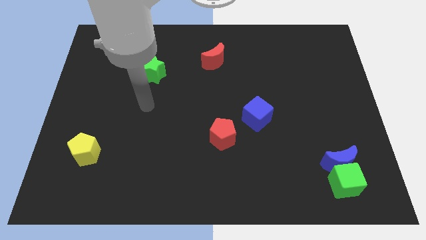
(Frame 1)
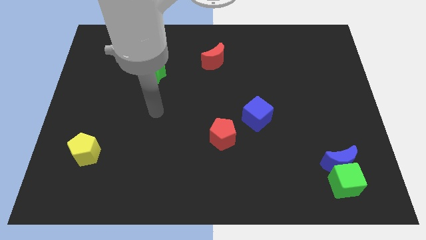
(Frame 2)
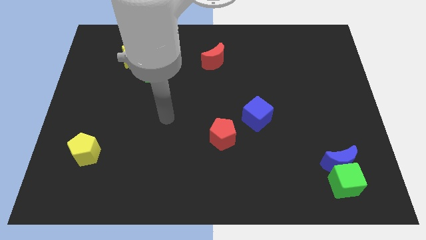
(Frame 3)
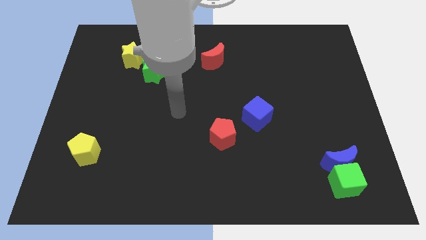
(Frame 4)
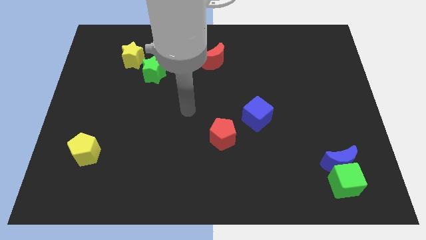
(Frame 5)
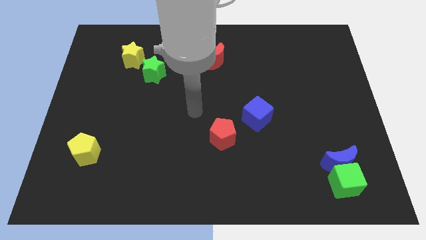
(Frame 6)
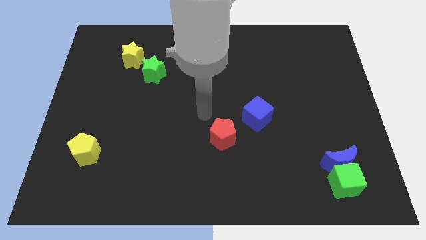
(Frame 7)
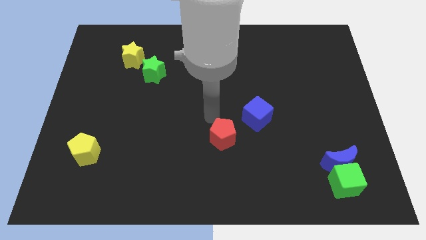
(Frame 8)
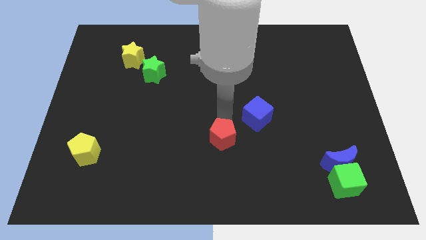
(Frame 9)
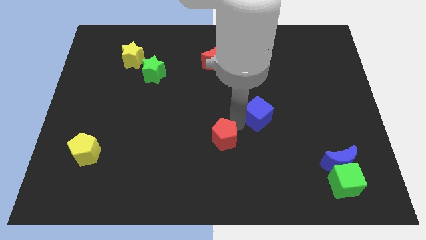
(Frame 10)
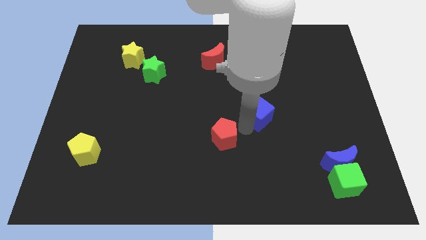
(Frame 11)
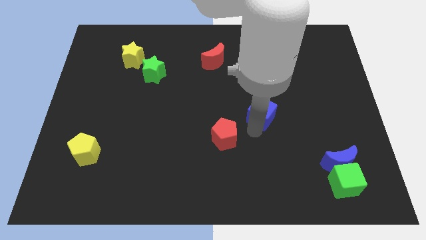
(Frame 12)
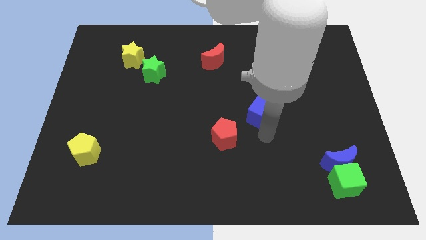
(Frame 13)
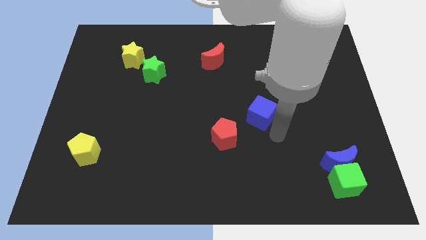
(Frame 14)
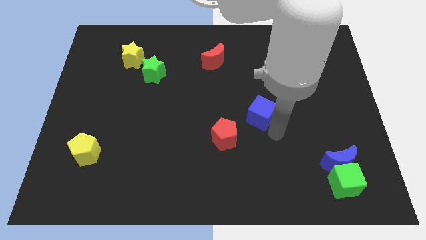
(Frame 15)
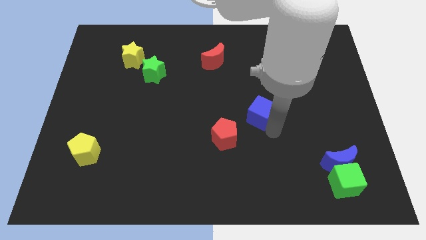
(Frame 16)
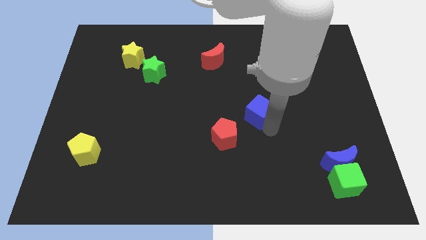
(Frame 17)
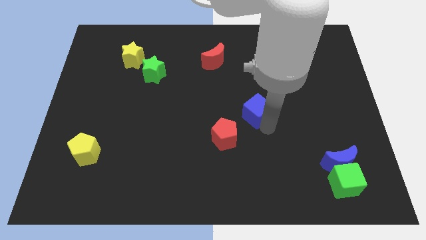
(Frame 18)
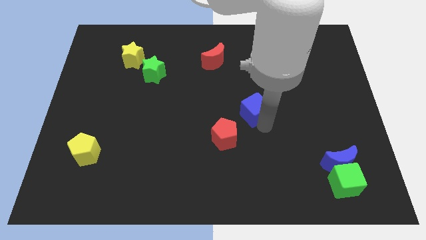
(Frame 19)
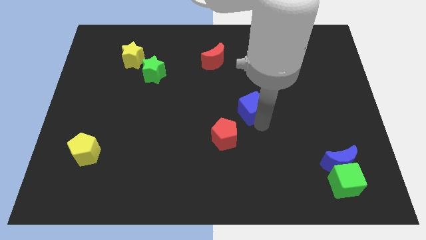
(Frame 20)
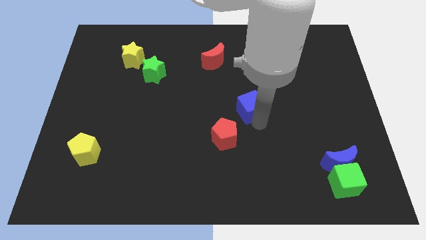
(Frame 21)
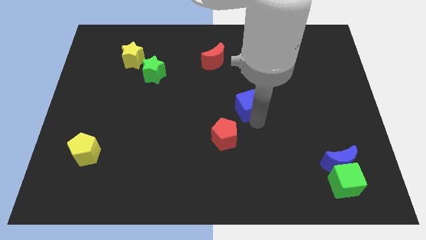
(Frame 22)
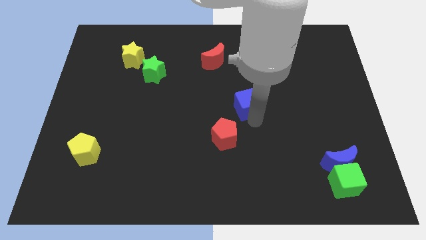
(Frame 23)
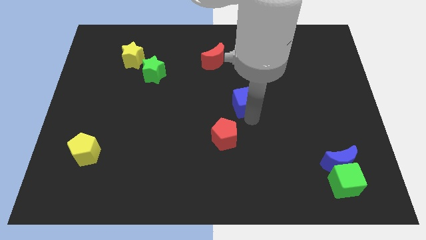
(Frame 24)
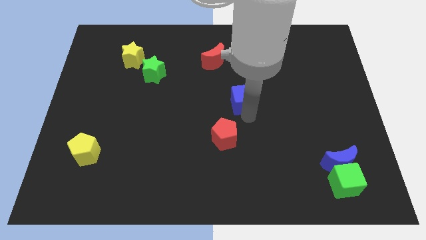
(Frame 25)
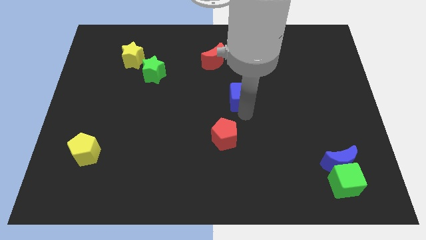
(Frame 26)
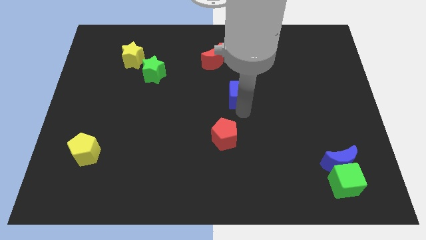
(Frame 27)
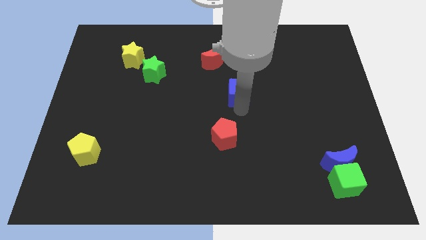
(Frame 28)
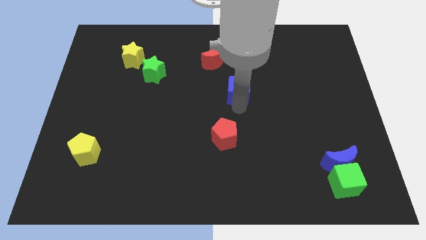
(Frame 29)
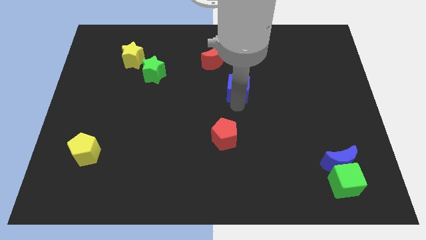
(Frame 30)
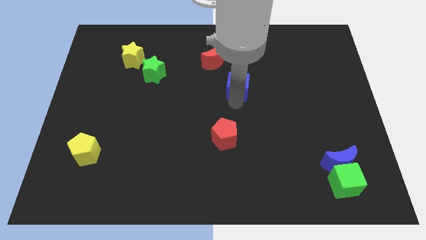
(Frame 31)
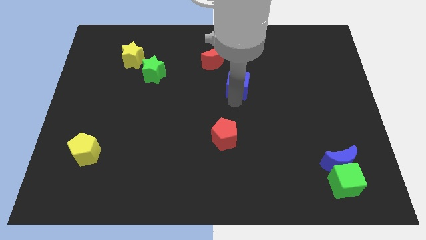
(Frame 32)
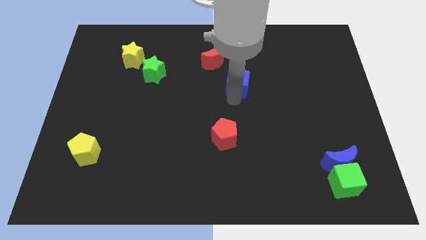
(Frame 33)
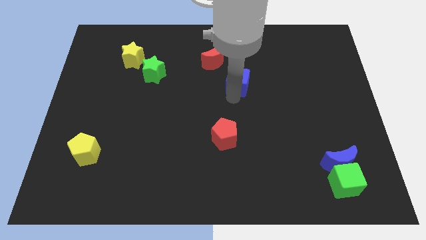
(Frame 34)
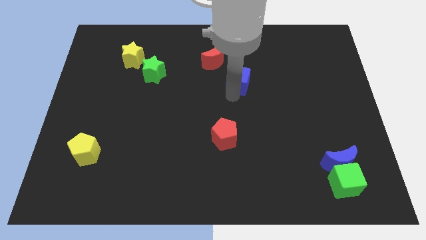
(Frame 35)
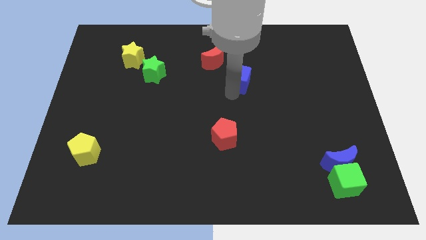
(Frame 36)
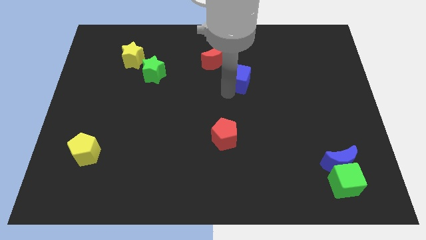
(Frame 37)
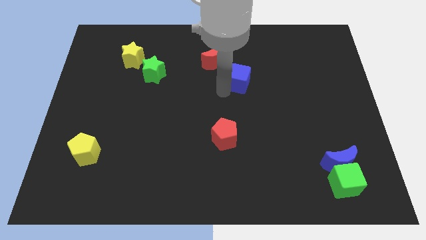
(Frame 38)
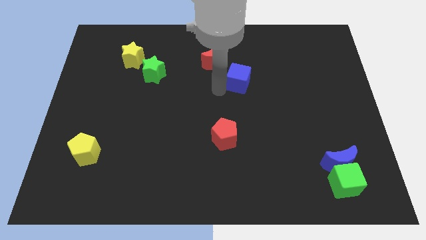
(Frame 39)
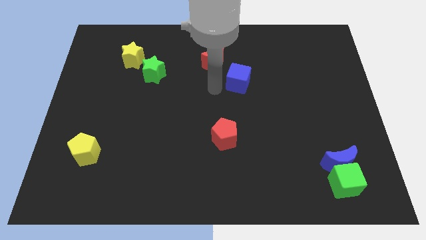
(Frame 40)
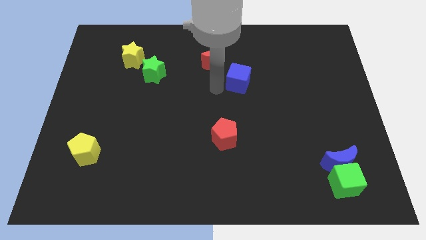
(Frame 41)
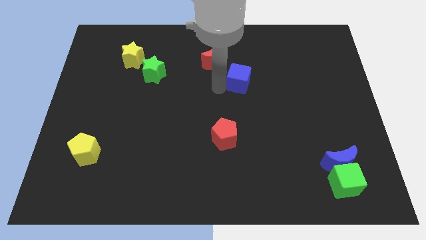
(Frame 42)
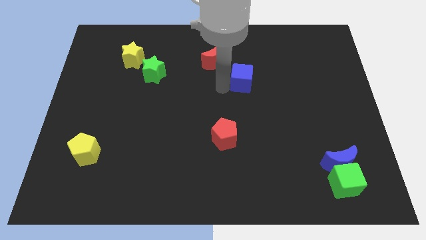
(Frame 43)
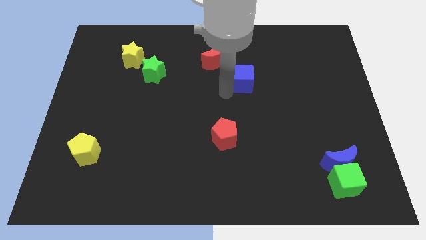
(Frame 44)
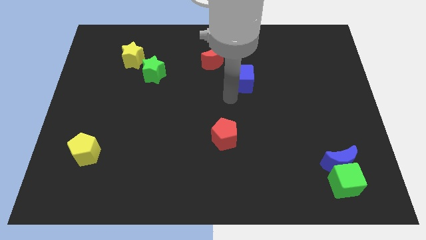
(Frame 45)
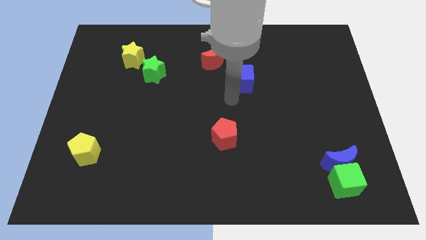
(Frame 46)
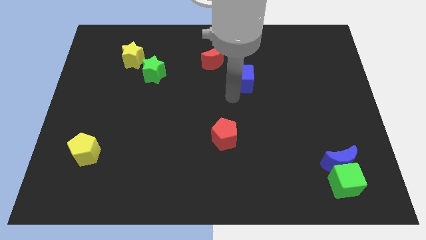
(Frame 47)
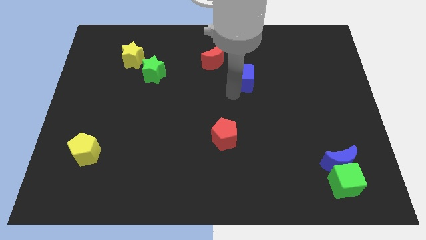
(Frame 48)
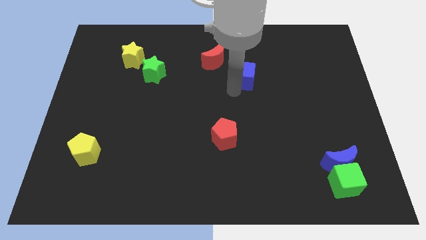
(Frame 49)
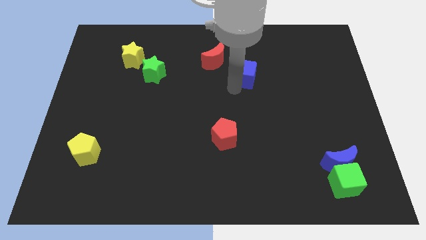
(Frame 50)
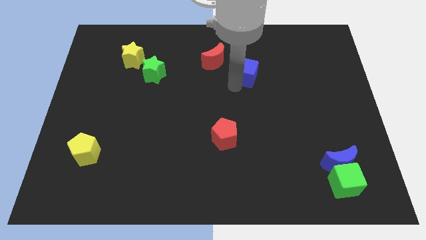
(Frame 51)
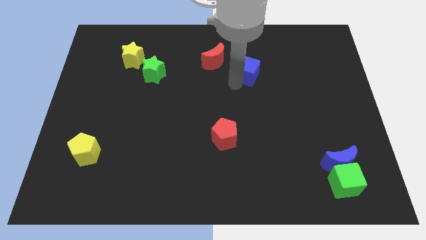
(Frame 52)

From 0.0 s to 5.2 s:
slide the blue cube to the right of the red moon

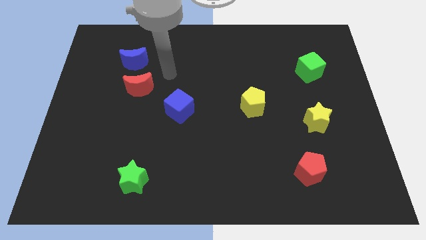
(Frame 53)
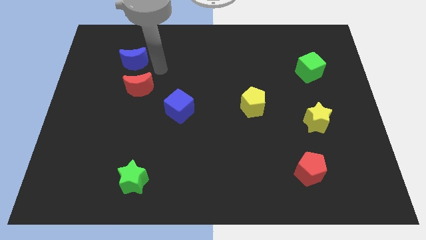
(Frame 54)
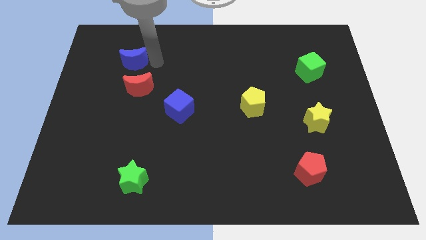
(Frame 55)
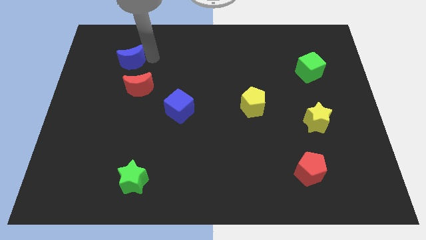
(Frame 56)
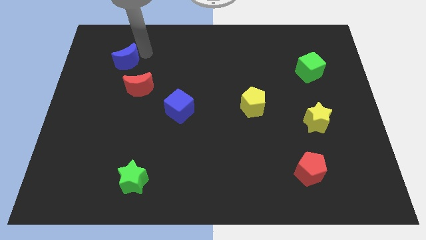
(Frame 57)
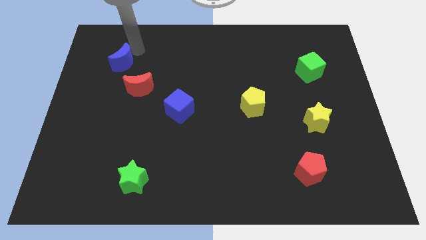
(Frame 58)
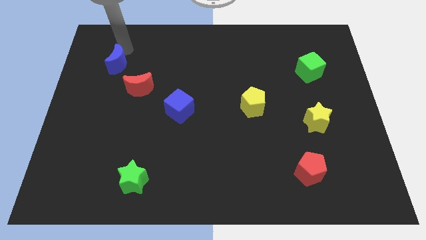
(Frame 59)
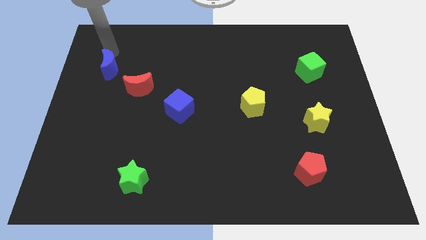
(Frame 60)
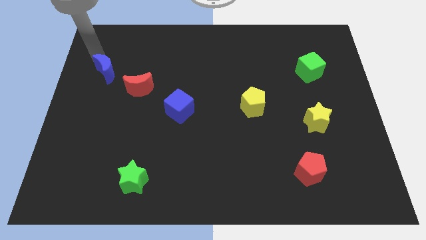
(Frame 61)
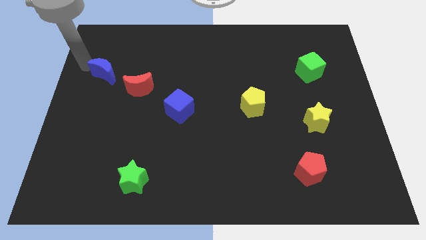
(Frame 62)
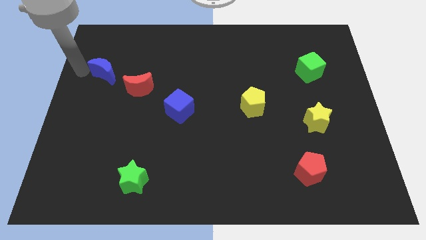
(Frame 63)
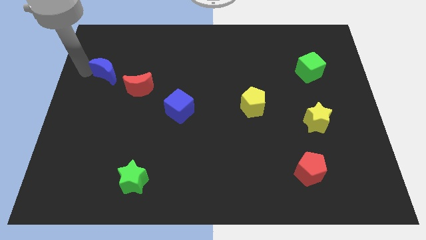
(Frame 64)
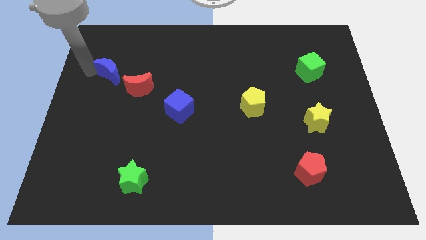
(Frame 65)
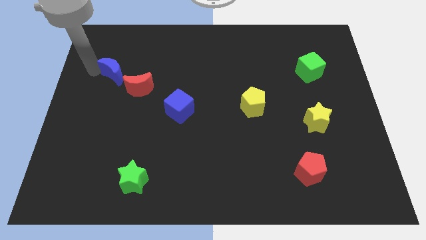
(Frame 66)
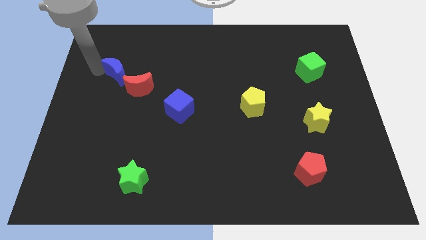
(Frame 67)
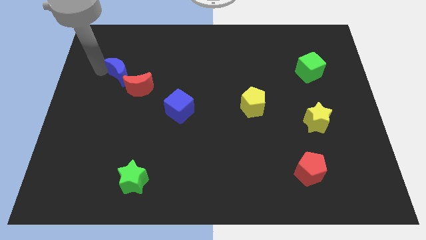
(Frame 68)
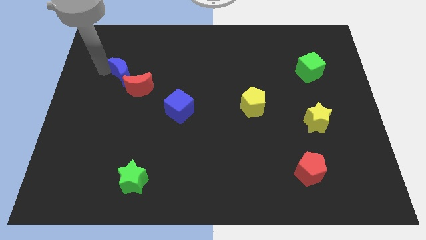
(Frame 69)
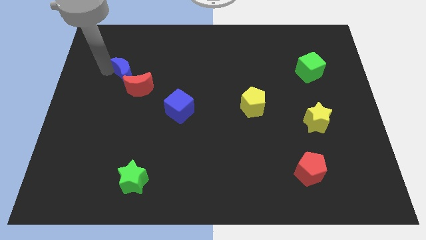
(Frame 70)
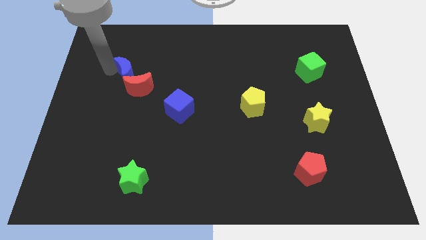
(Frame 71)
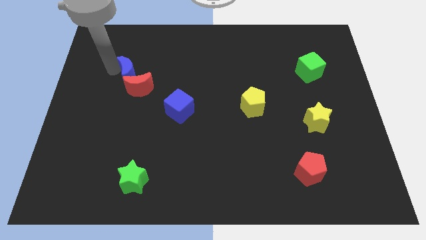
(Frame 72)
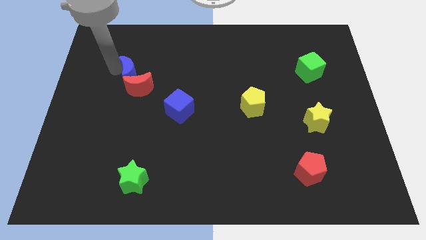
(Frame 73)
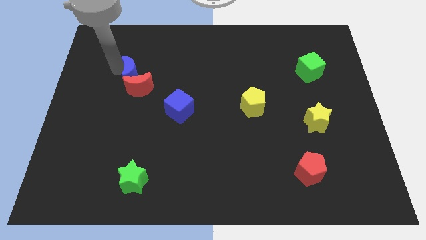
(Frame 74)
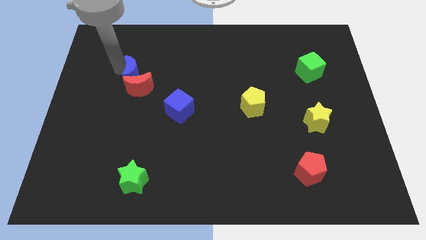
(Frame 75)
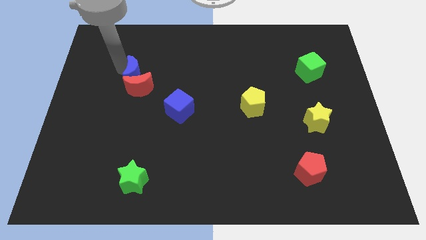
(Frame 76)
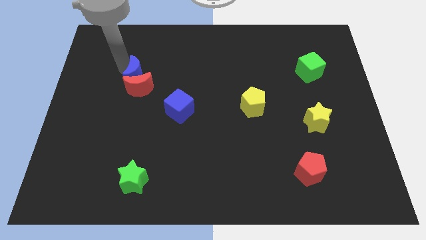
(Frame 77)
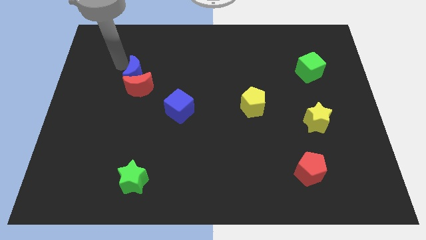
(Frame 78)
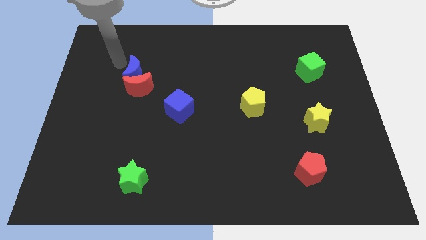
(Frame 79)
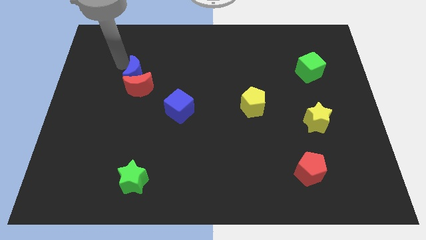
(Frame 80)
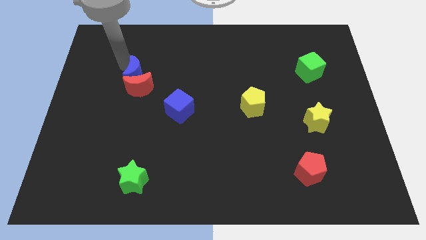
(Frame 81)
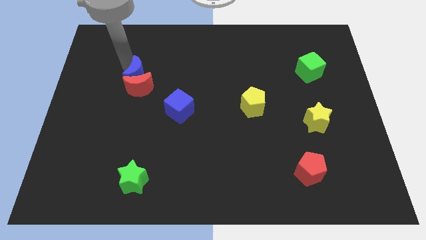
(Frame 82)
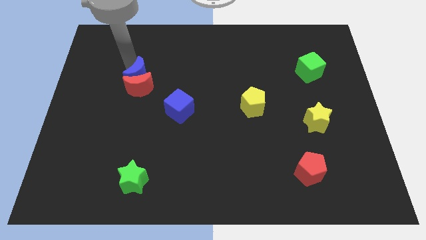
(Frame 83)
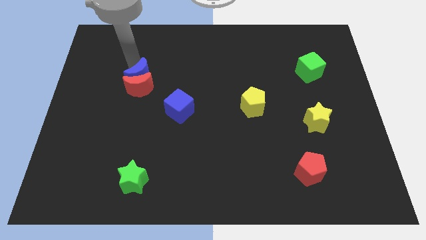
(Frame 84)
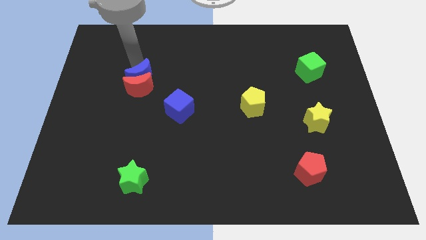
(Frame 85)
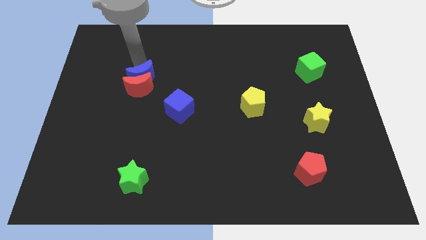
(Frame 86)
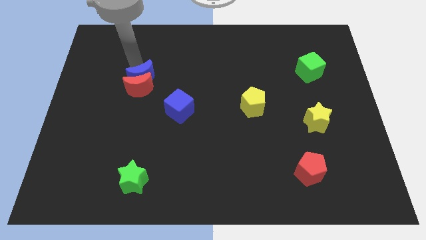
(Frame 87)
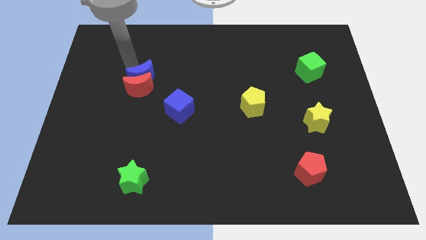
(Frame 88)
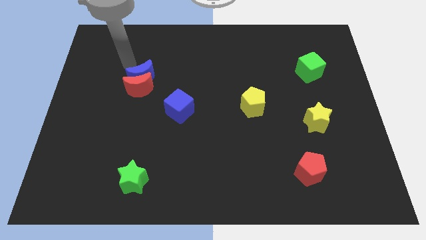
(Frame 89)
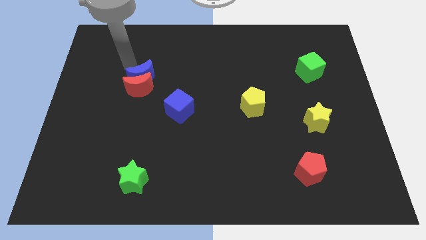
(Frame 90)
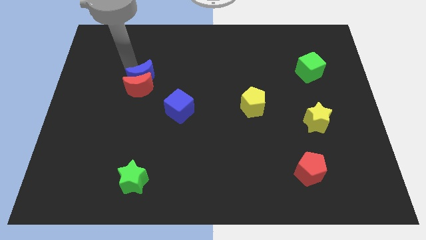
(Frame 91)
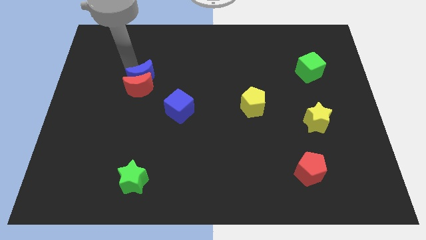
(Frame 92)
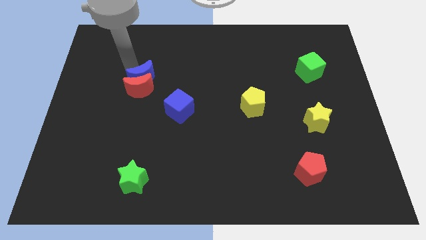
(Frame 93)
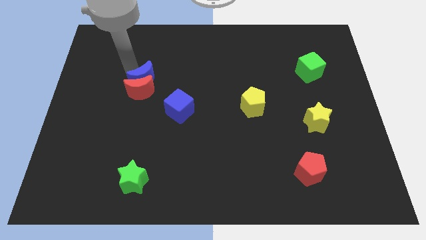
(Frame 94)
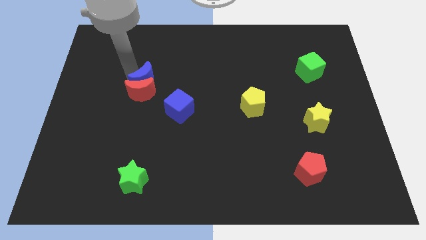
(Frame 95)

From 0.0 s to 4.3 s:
slide the blue moon to the top left side of the blue cube
